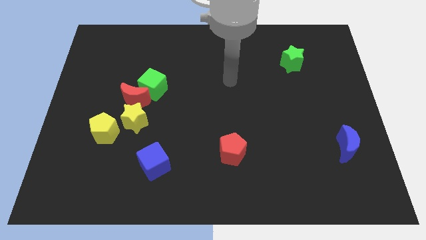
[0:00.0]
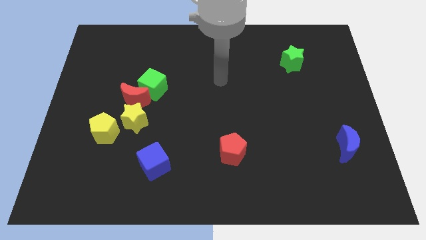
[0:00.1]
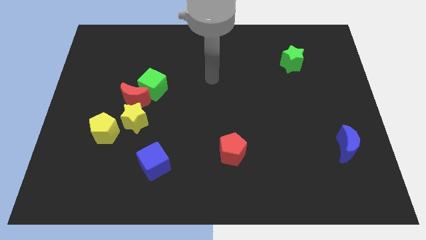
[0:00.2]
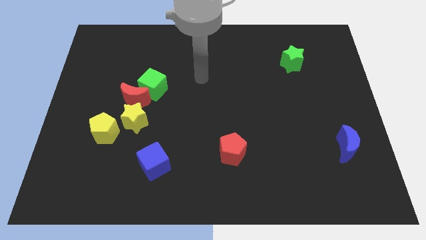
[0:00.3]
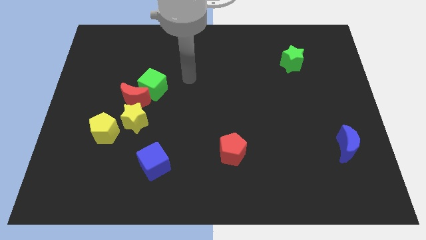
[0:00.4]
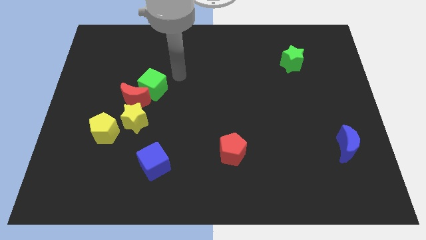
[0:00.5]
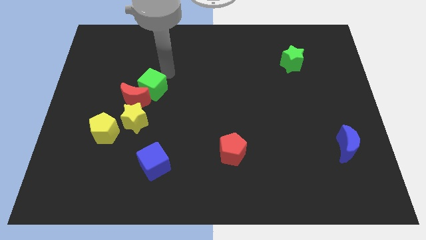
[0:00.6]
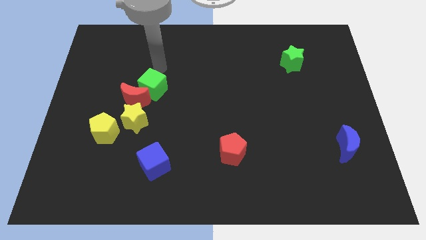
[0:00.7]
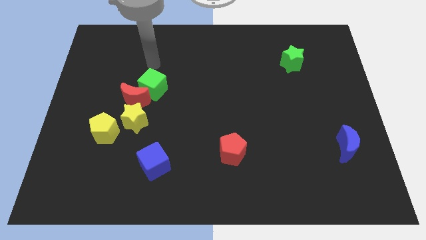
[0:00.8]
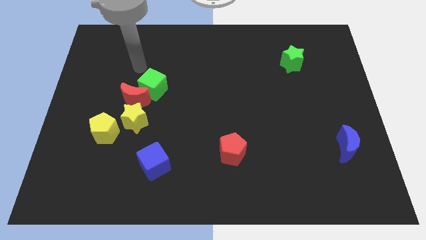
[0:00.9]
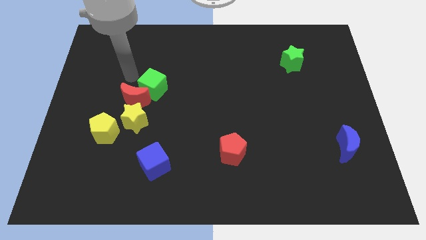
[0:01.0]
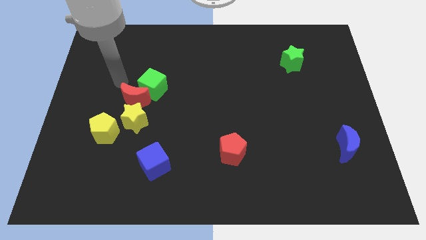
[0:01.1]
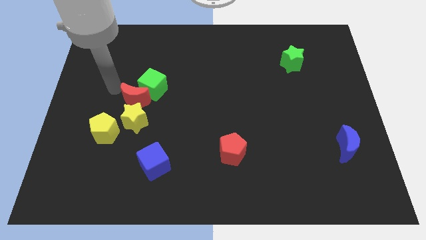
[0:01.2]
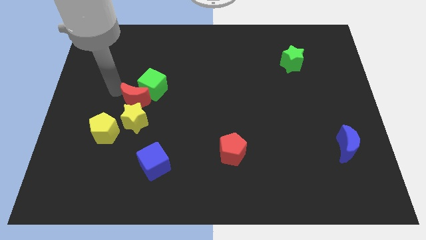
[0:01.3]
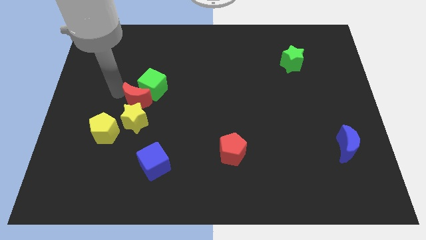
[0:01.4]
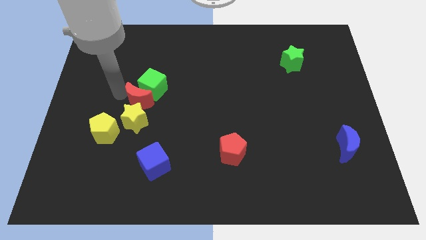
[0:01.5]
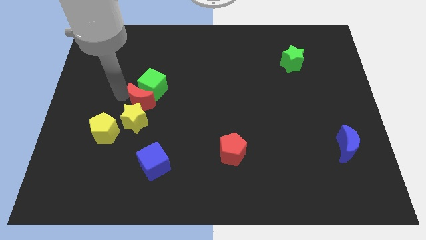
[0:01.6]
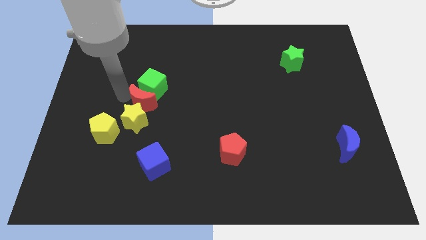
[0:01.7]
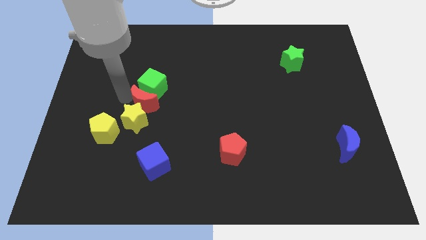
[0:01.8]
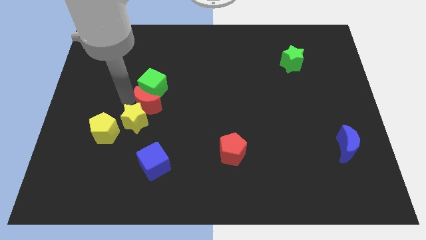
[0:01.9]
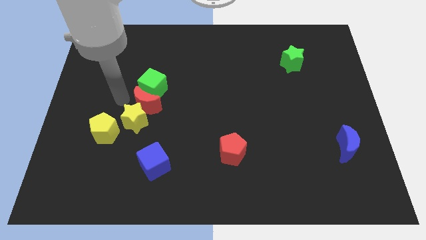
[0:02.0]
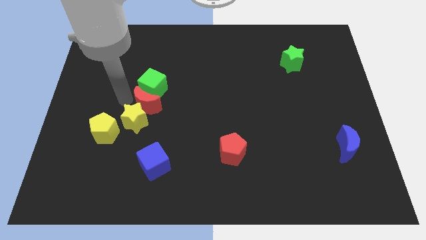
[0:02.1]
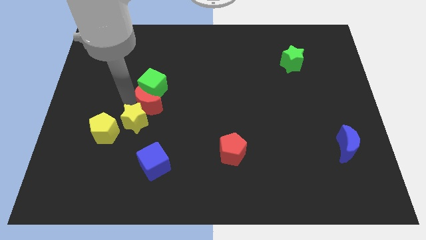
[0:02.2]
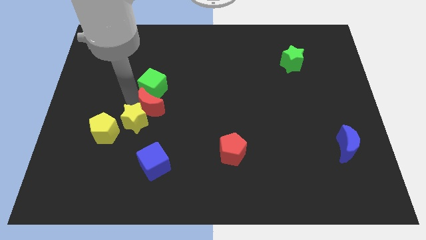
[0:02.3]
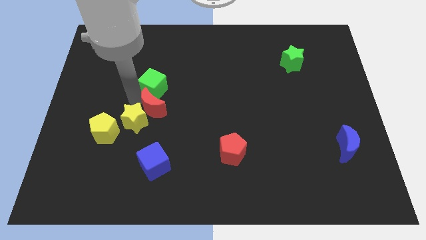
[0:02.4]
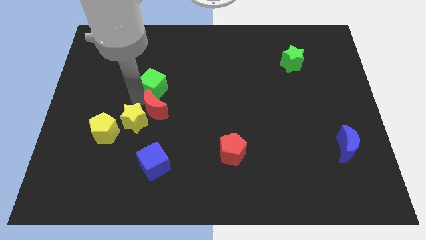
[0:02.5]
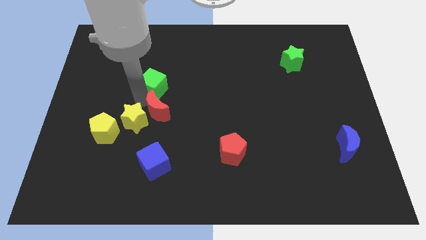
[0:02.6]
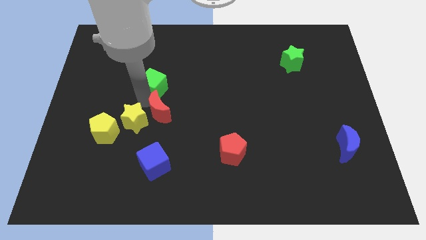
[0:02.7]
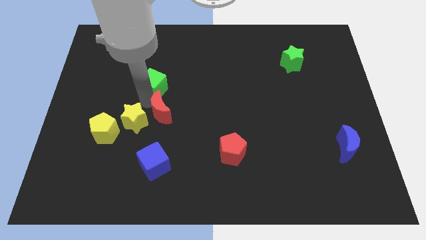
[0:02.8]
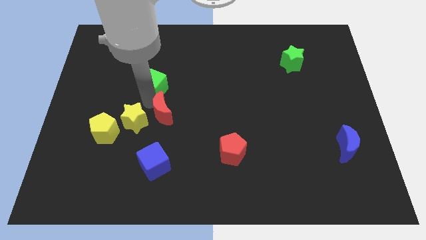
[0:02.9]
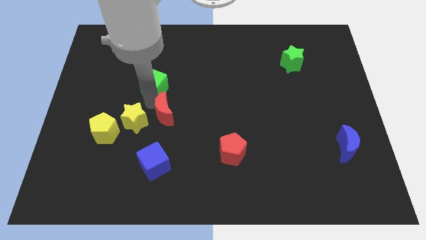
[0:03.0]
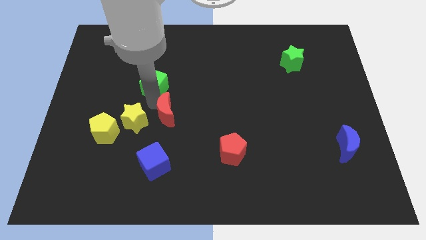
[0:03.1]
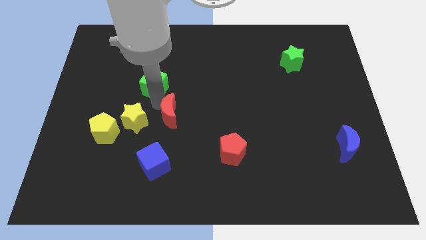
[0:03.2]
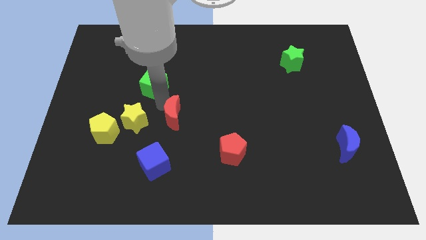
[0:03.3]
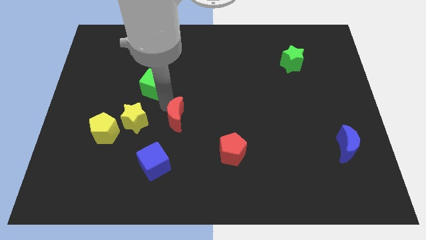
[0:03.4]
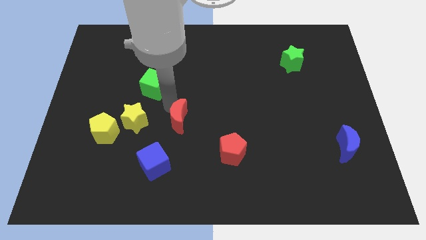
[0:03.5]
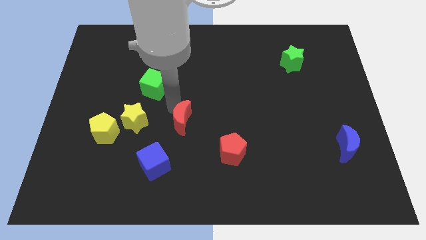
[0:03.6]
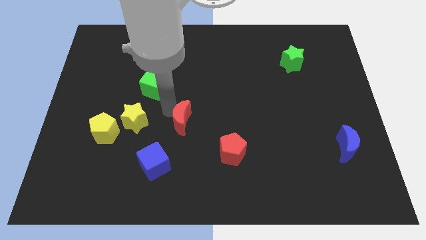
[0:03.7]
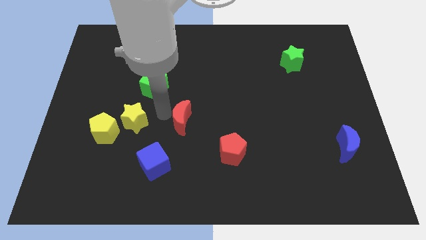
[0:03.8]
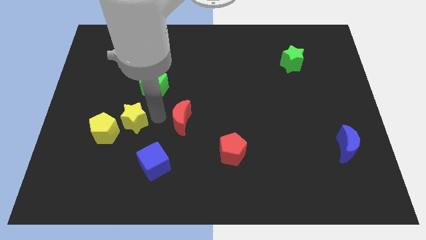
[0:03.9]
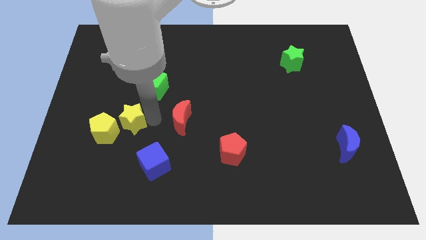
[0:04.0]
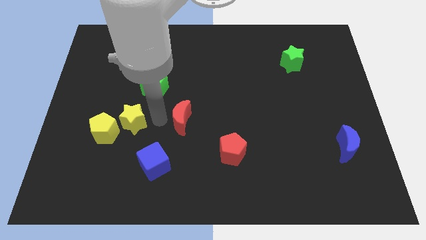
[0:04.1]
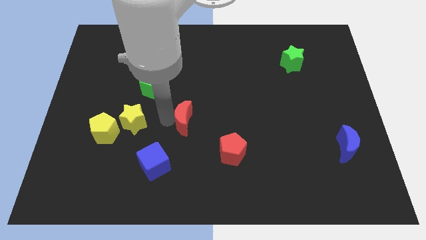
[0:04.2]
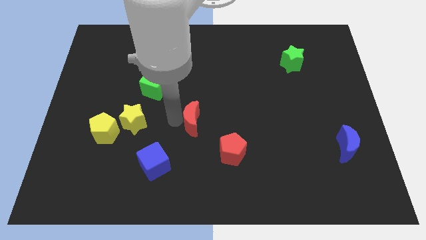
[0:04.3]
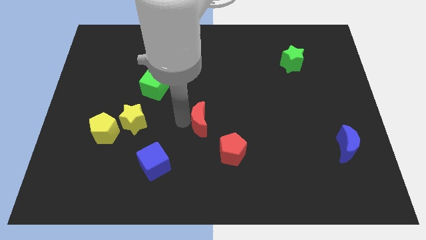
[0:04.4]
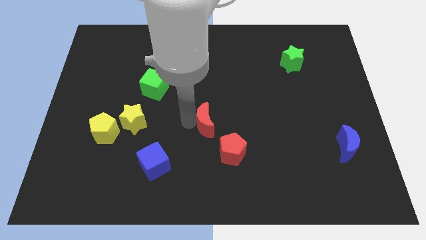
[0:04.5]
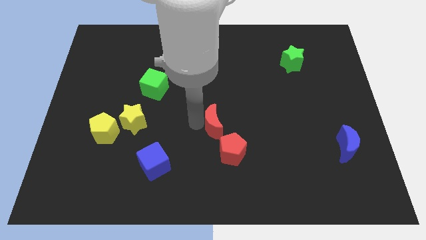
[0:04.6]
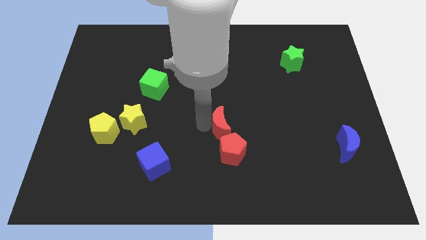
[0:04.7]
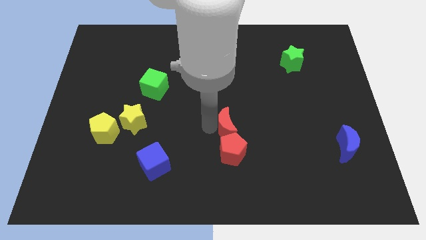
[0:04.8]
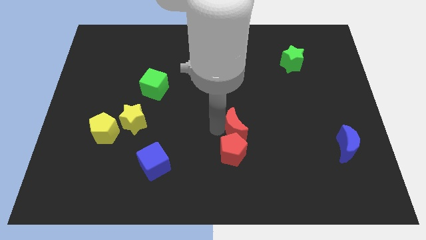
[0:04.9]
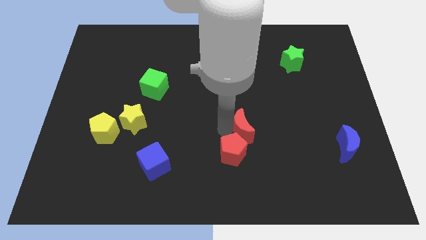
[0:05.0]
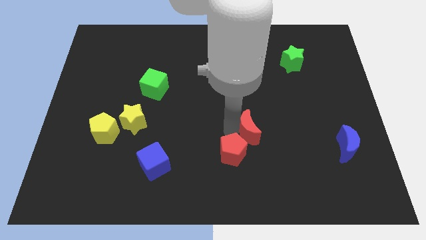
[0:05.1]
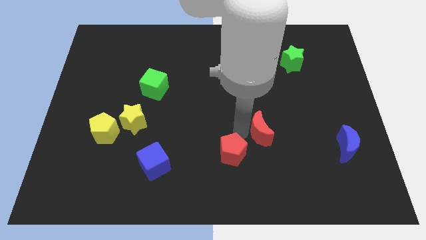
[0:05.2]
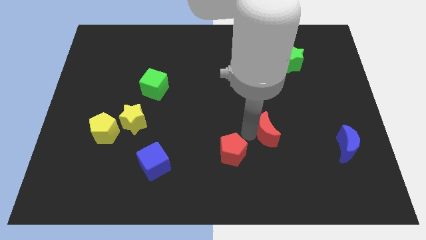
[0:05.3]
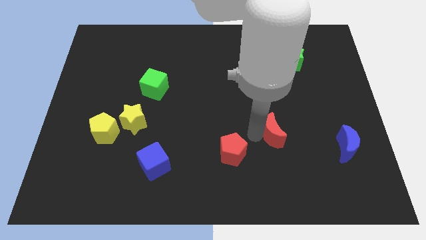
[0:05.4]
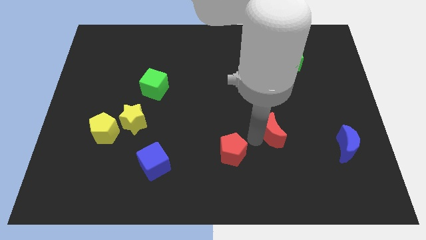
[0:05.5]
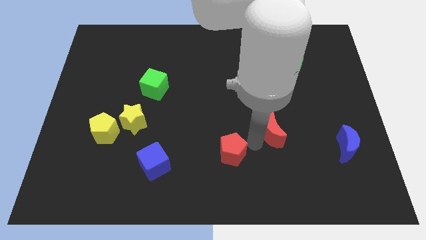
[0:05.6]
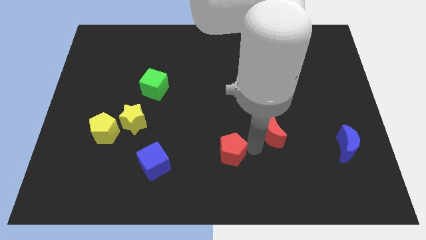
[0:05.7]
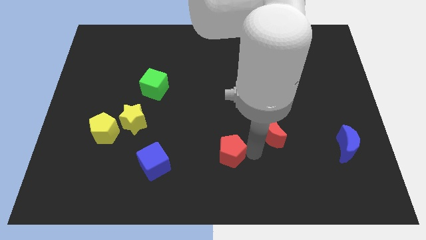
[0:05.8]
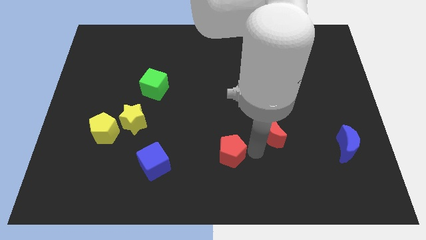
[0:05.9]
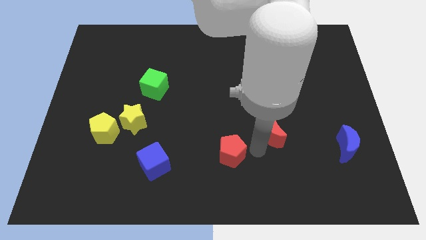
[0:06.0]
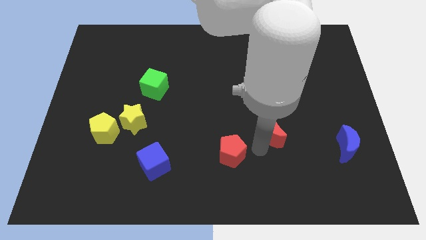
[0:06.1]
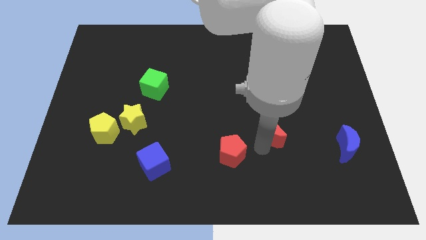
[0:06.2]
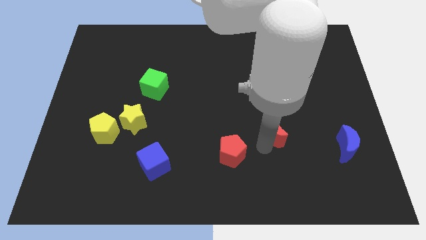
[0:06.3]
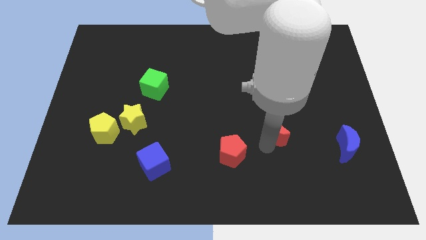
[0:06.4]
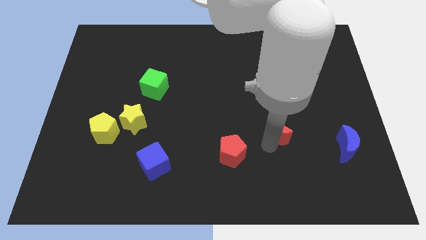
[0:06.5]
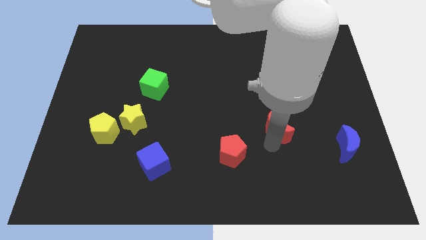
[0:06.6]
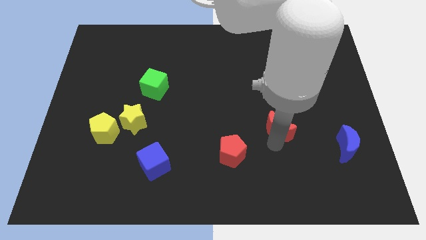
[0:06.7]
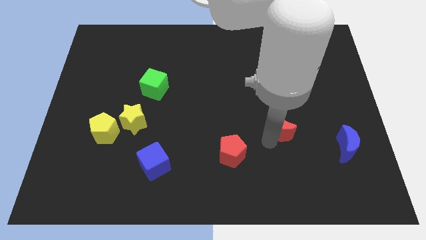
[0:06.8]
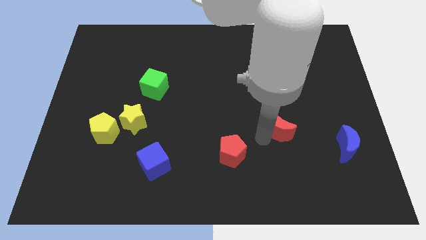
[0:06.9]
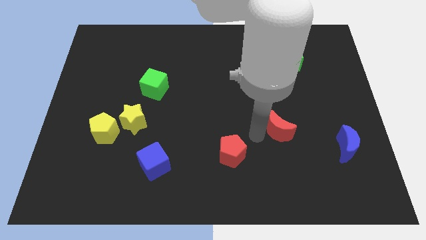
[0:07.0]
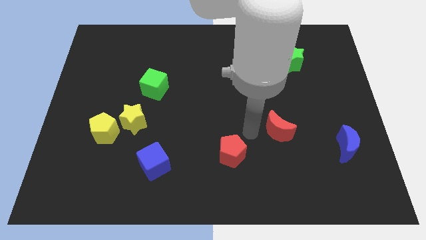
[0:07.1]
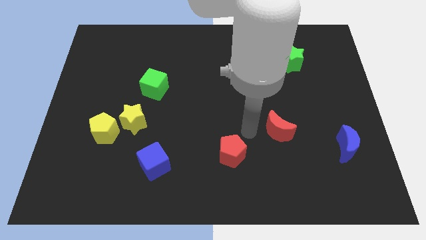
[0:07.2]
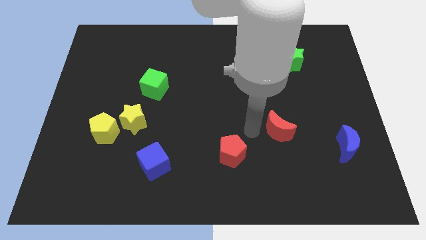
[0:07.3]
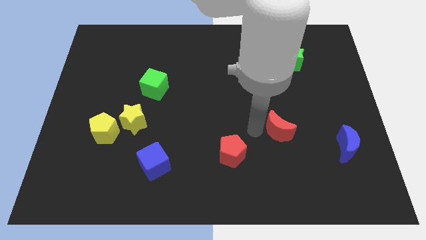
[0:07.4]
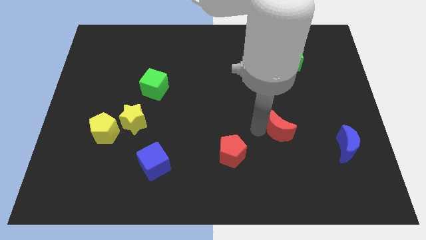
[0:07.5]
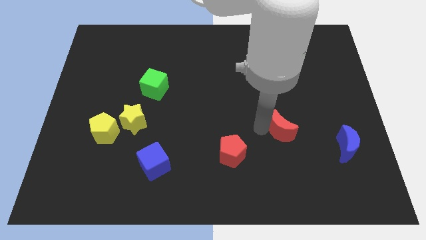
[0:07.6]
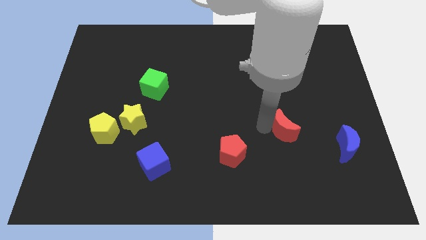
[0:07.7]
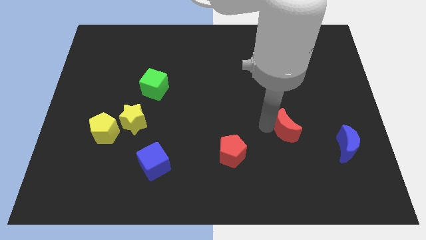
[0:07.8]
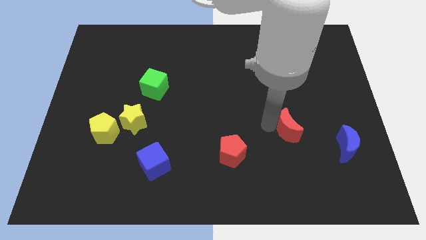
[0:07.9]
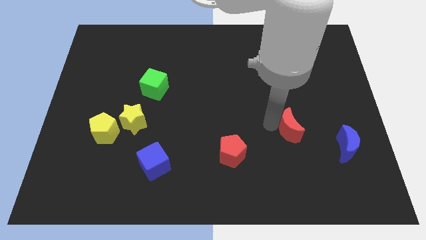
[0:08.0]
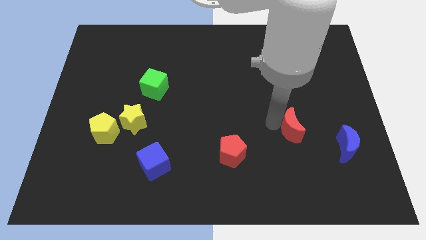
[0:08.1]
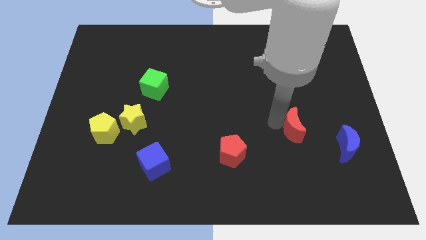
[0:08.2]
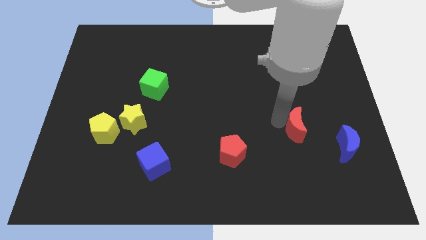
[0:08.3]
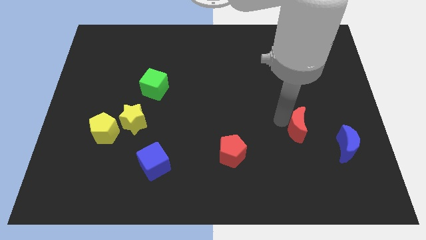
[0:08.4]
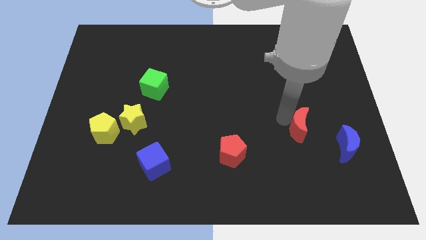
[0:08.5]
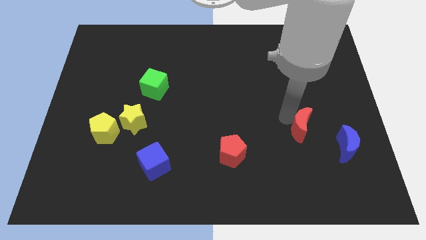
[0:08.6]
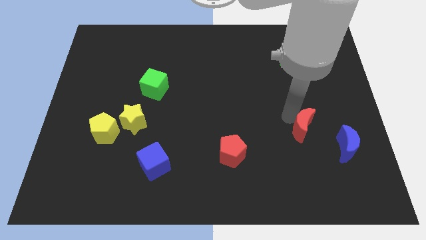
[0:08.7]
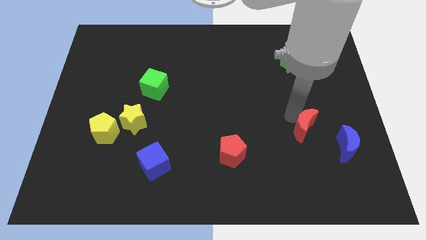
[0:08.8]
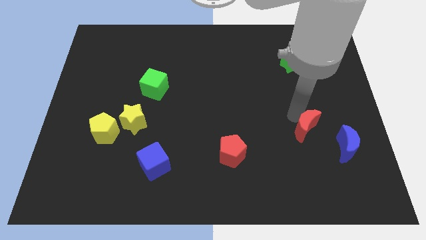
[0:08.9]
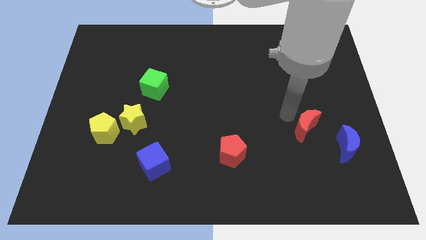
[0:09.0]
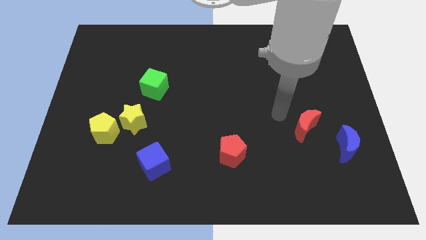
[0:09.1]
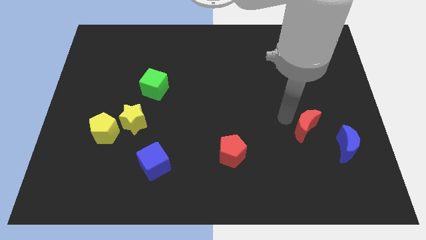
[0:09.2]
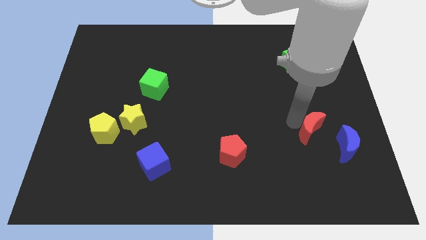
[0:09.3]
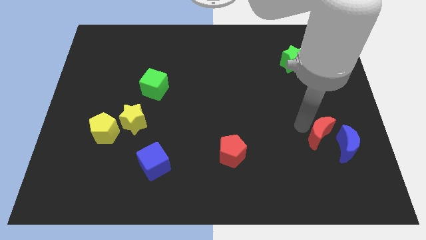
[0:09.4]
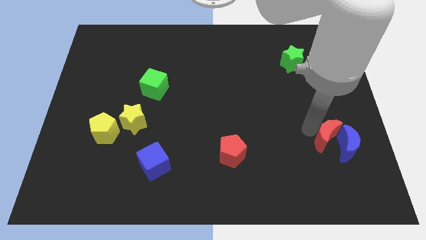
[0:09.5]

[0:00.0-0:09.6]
put the red moon towards the blue moon
